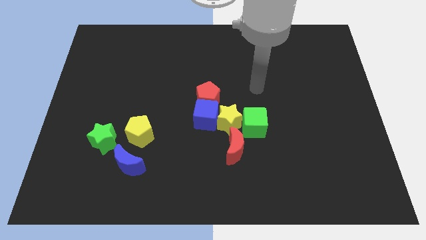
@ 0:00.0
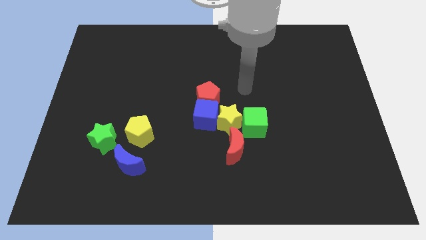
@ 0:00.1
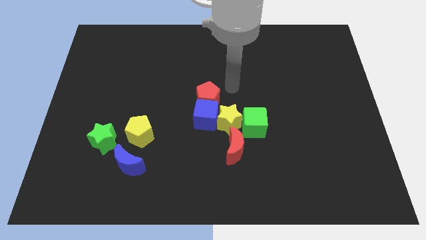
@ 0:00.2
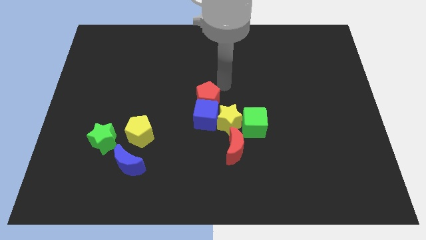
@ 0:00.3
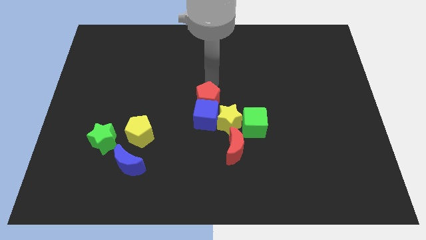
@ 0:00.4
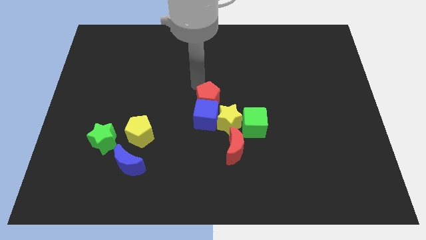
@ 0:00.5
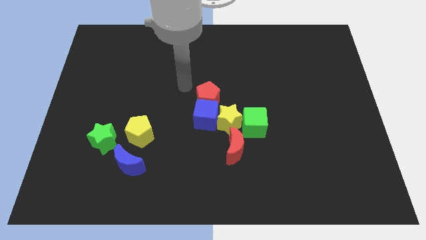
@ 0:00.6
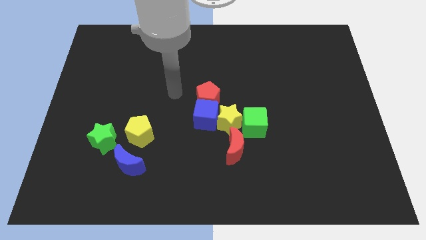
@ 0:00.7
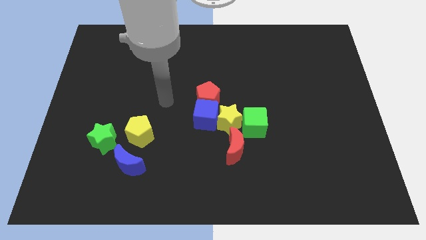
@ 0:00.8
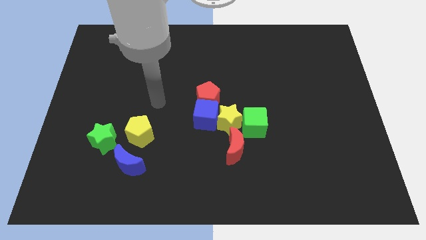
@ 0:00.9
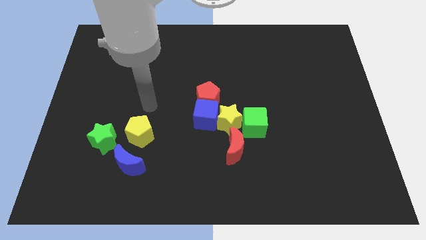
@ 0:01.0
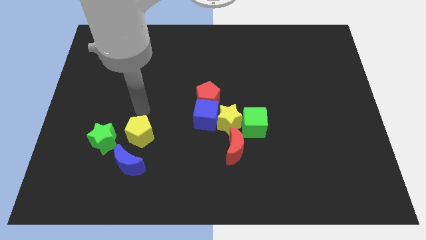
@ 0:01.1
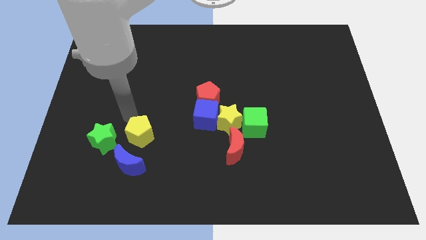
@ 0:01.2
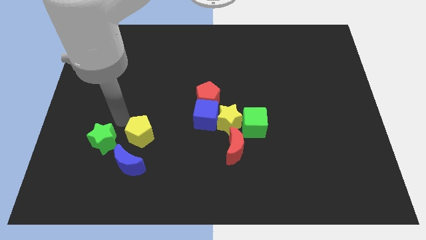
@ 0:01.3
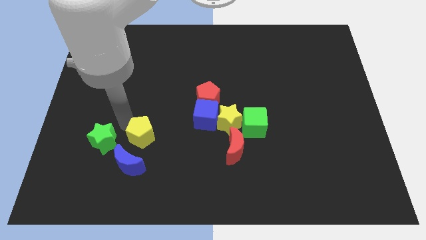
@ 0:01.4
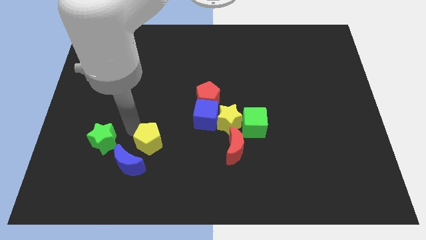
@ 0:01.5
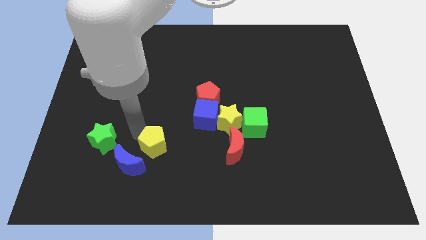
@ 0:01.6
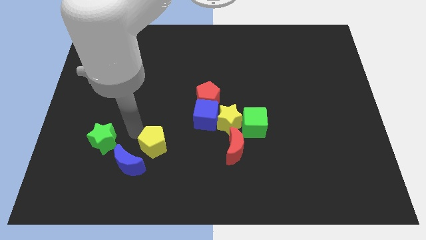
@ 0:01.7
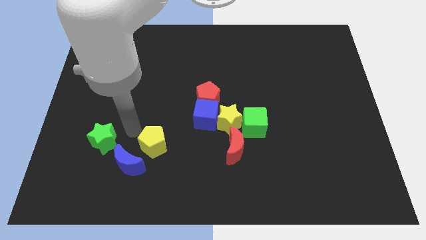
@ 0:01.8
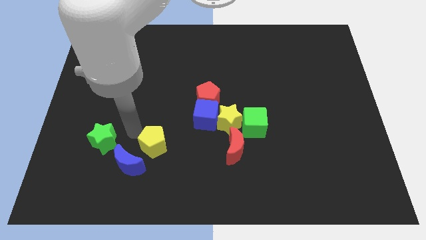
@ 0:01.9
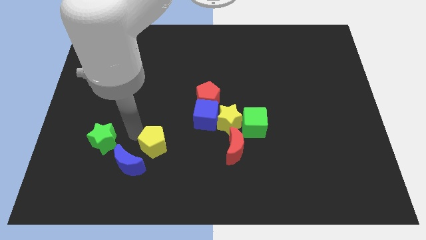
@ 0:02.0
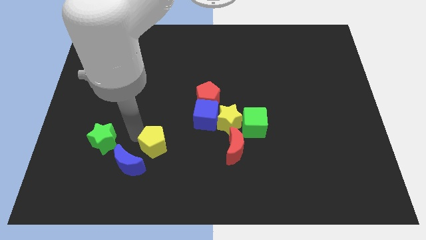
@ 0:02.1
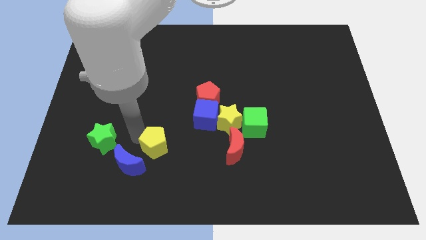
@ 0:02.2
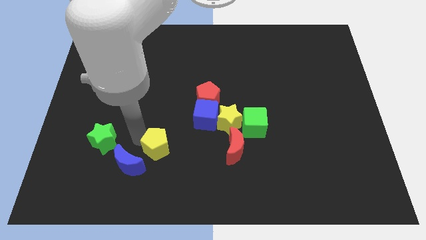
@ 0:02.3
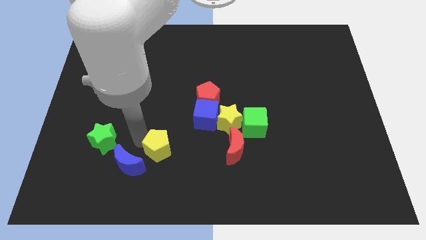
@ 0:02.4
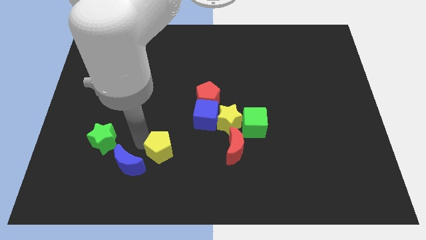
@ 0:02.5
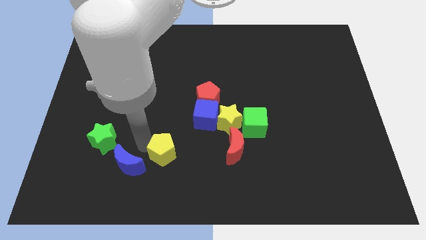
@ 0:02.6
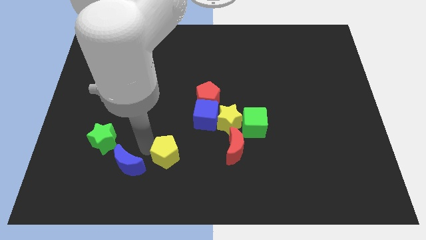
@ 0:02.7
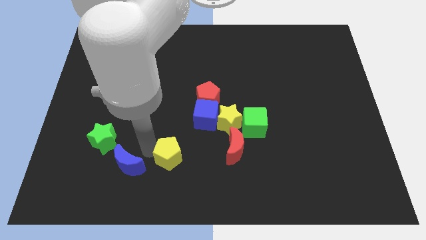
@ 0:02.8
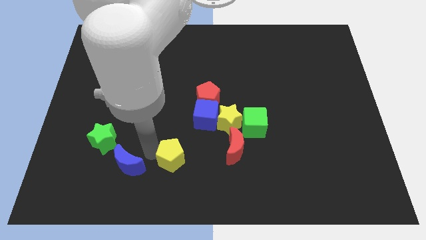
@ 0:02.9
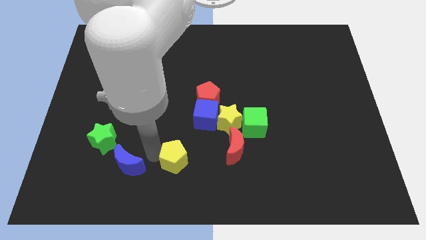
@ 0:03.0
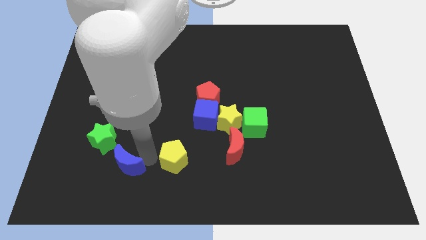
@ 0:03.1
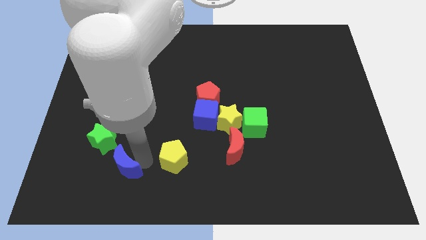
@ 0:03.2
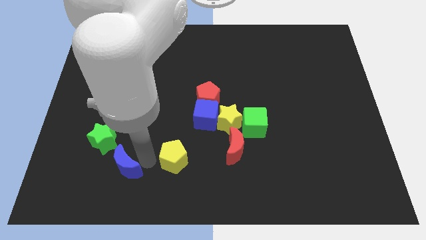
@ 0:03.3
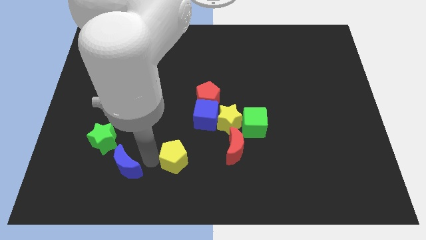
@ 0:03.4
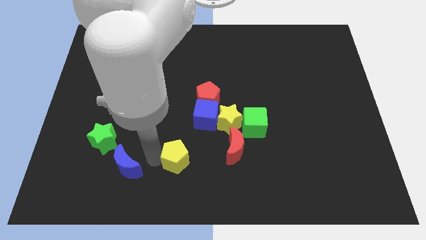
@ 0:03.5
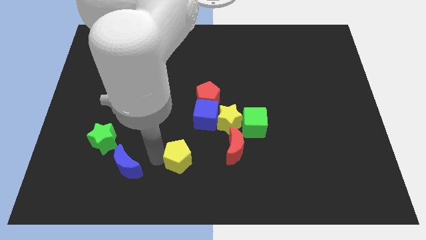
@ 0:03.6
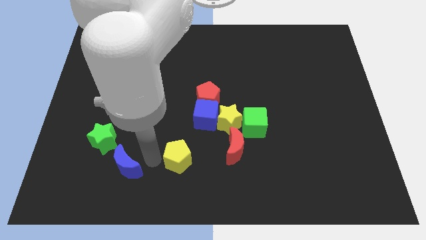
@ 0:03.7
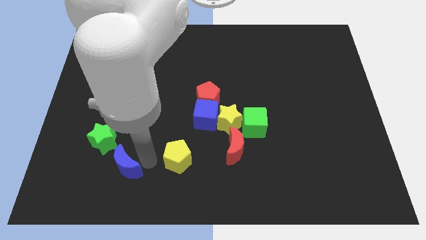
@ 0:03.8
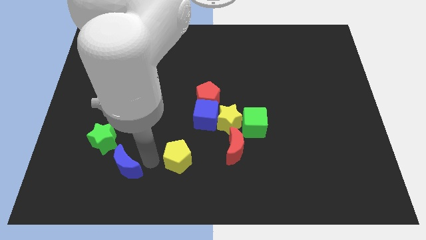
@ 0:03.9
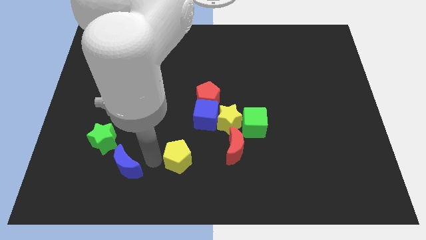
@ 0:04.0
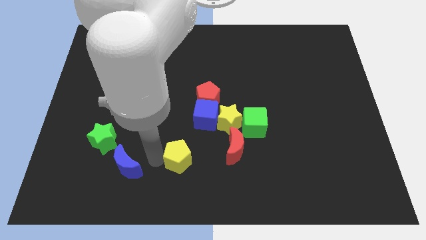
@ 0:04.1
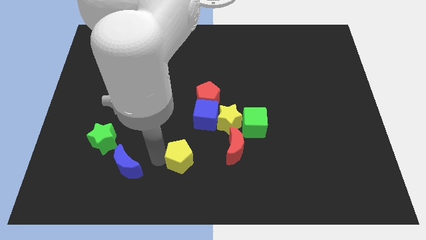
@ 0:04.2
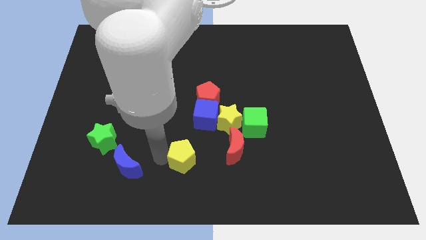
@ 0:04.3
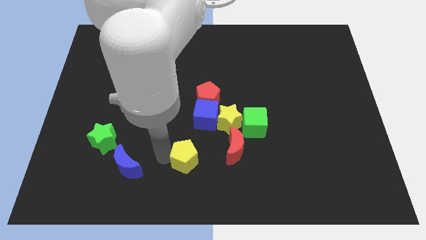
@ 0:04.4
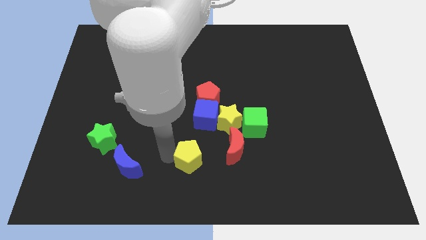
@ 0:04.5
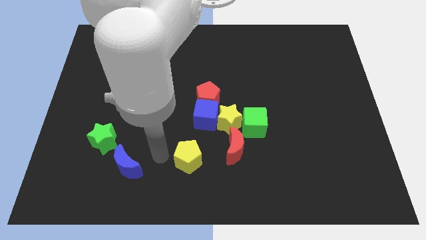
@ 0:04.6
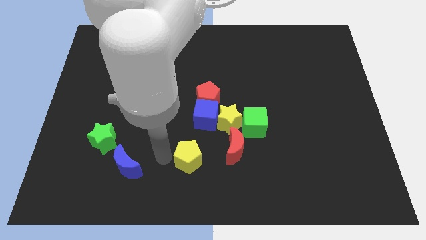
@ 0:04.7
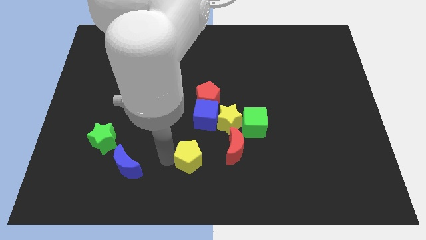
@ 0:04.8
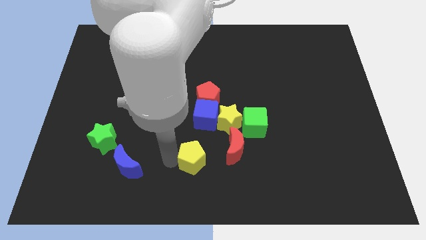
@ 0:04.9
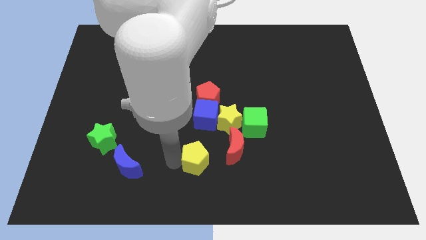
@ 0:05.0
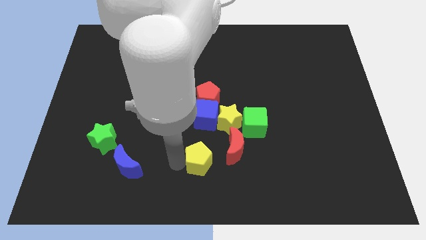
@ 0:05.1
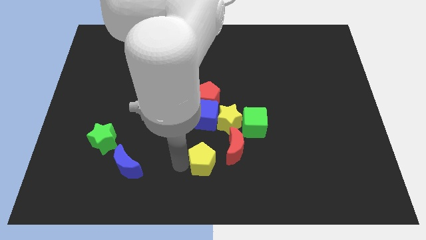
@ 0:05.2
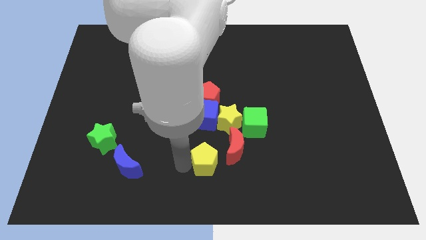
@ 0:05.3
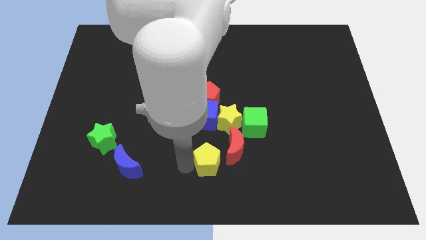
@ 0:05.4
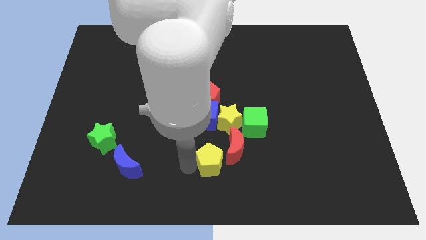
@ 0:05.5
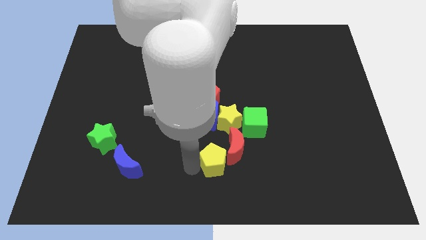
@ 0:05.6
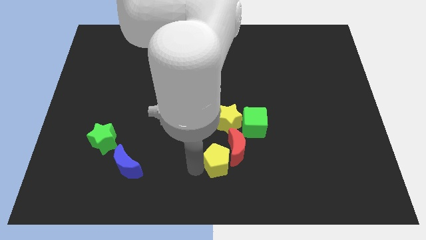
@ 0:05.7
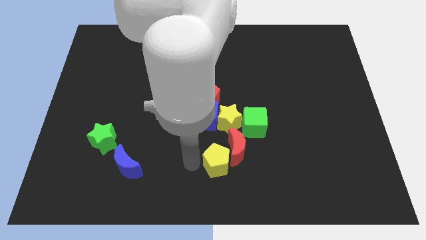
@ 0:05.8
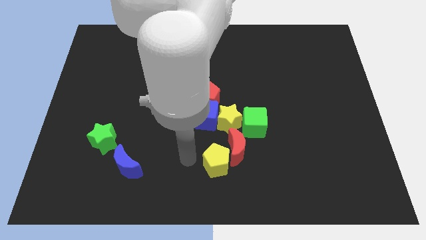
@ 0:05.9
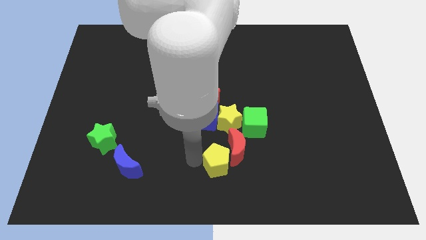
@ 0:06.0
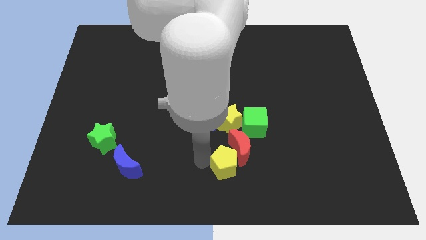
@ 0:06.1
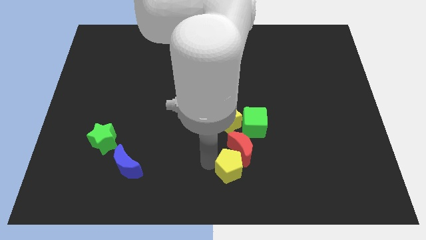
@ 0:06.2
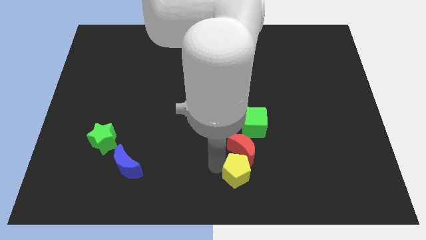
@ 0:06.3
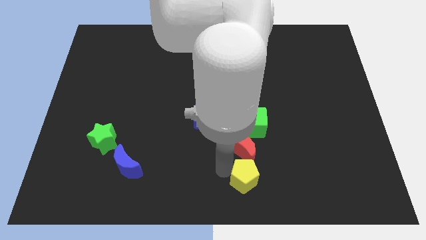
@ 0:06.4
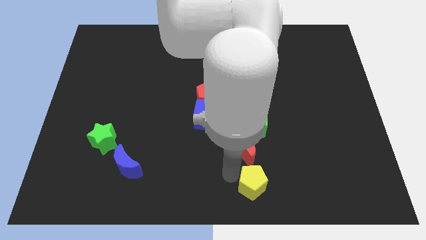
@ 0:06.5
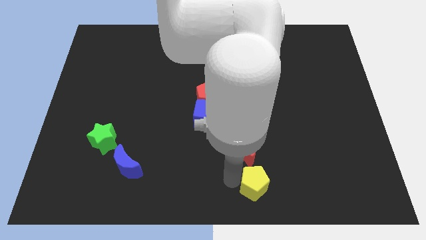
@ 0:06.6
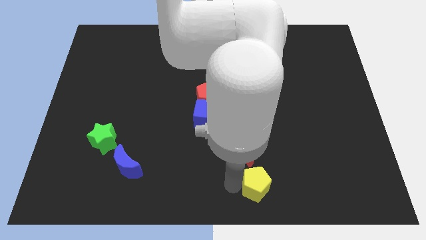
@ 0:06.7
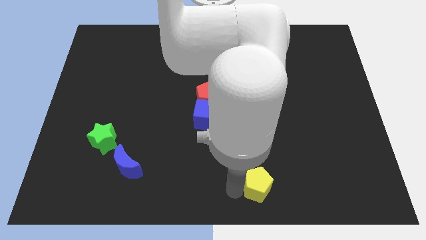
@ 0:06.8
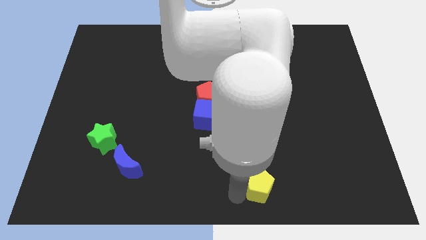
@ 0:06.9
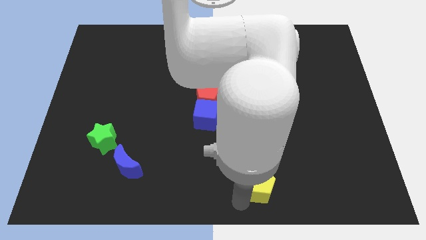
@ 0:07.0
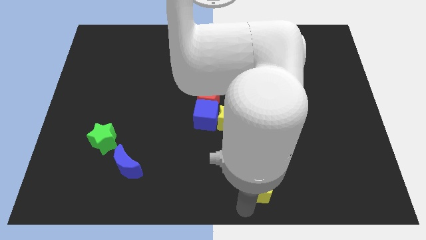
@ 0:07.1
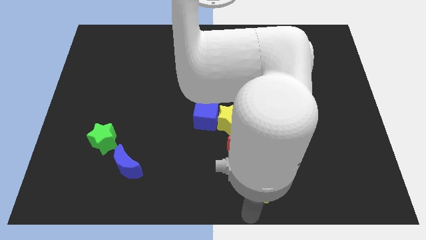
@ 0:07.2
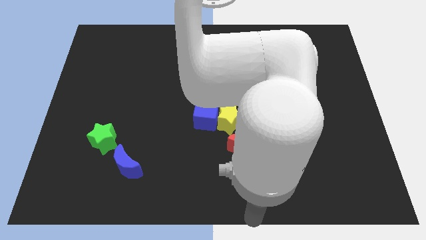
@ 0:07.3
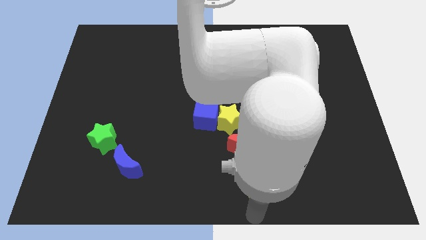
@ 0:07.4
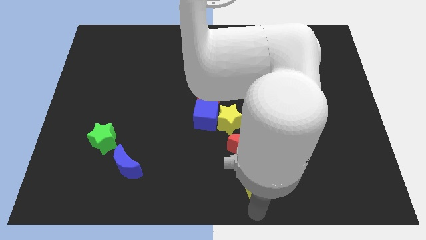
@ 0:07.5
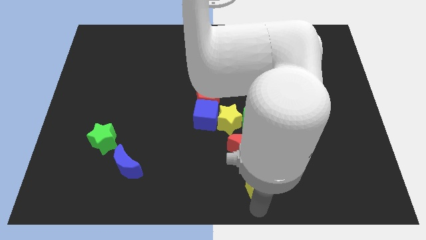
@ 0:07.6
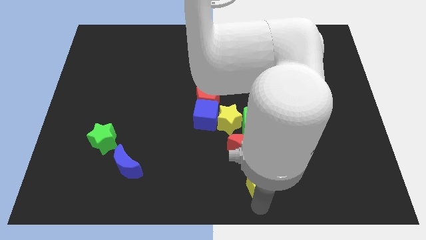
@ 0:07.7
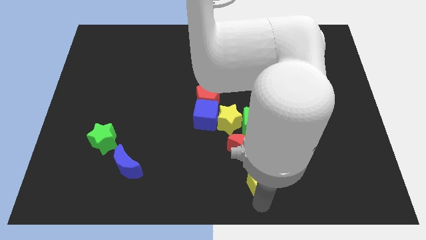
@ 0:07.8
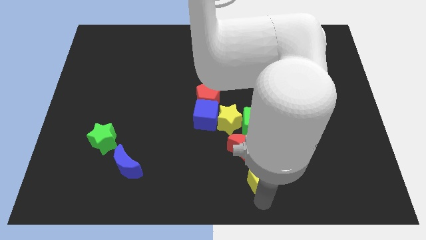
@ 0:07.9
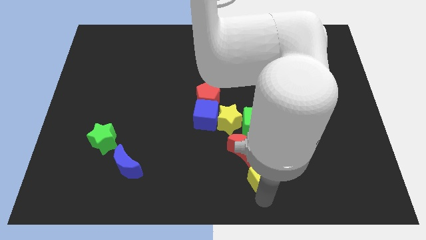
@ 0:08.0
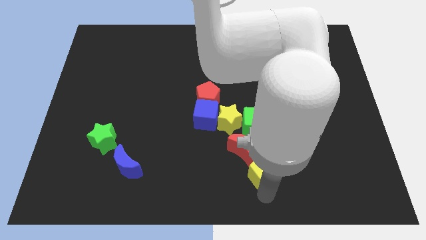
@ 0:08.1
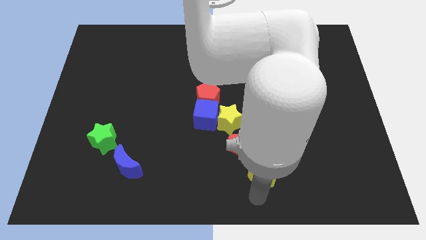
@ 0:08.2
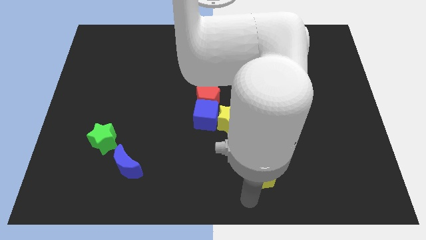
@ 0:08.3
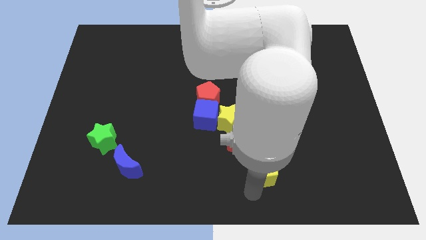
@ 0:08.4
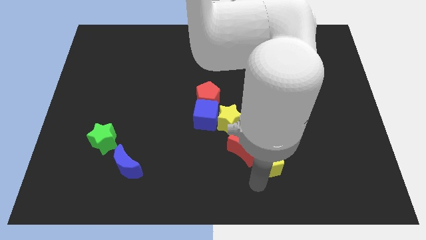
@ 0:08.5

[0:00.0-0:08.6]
push the yellow pentagon to the bottom right side of the green cube
